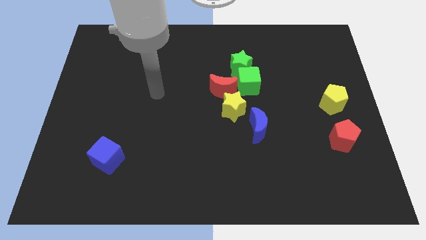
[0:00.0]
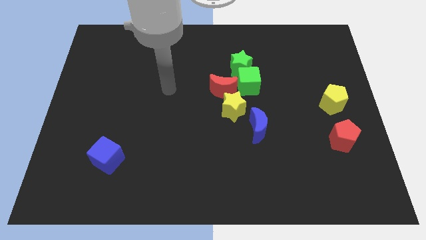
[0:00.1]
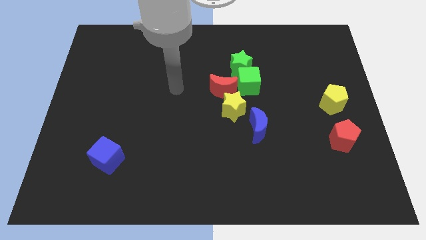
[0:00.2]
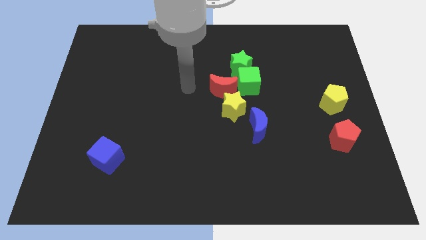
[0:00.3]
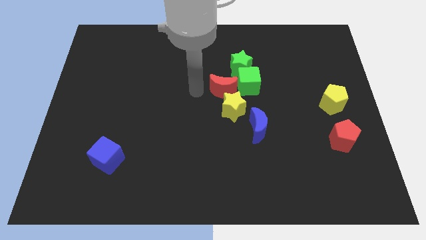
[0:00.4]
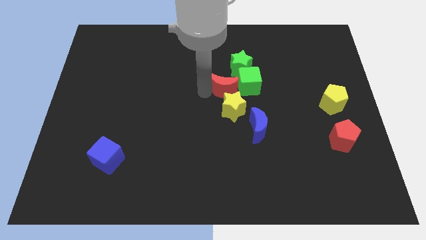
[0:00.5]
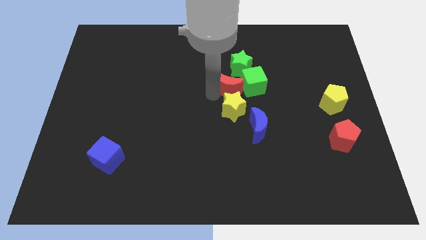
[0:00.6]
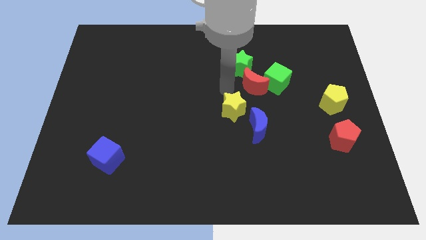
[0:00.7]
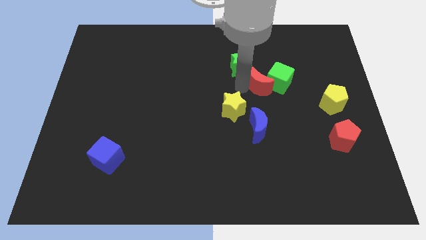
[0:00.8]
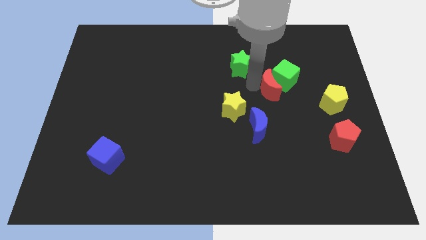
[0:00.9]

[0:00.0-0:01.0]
move the green cube away from the group of blocks

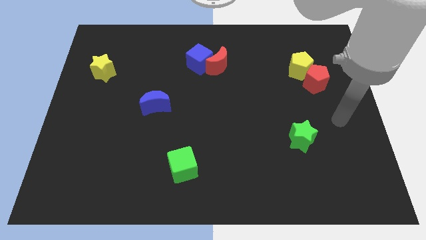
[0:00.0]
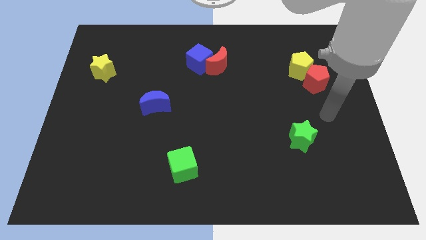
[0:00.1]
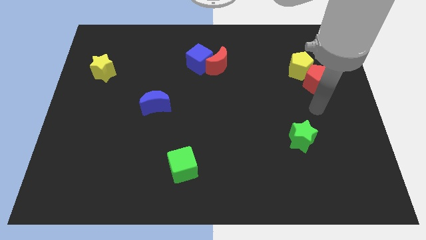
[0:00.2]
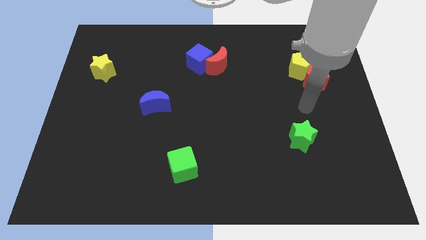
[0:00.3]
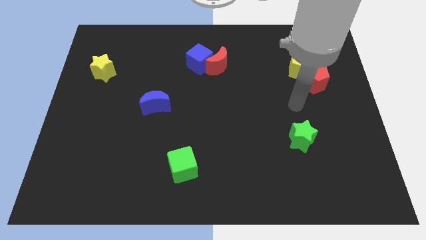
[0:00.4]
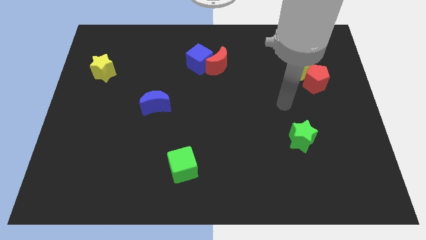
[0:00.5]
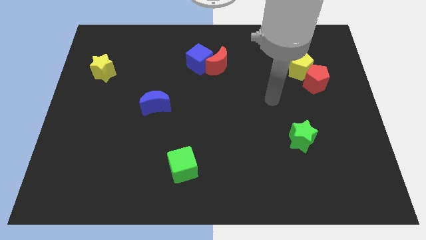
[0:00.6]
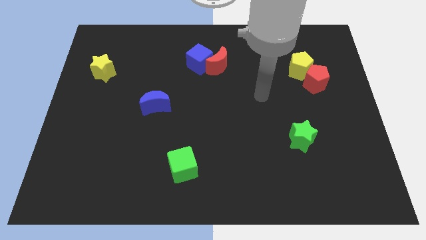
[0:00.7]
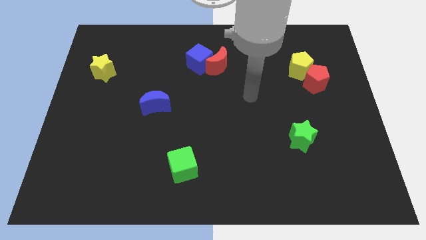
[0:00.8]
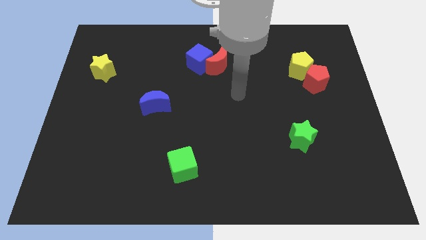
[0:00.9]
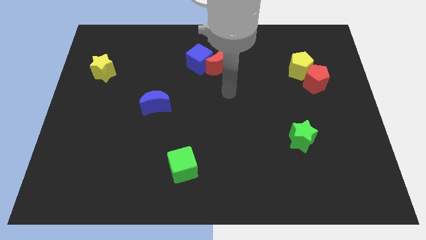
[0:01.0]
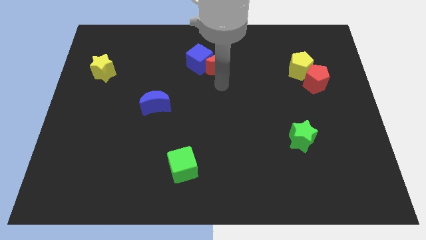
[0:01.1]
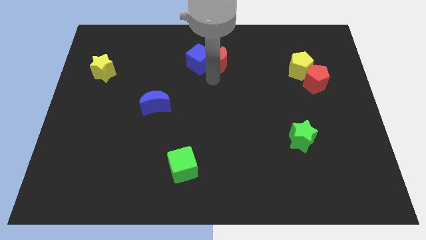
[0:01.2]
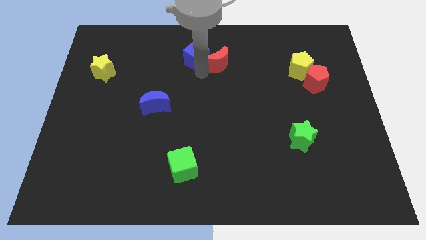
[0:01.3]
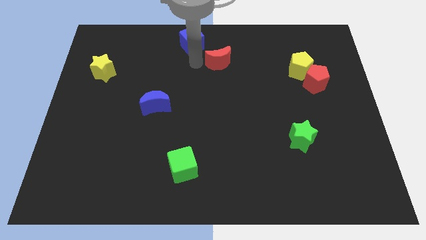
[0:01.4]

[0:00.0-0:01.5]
pull the red moon apart from the blue cube

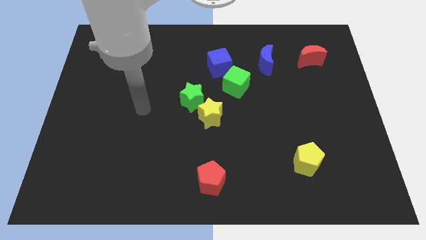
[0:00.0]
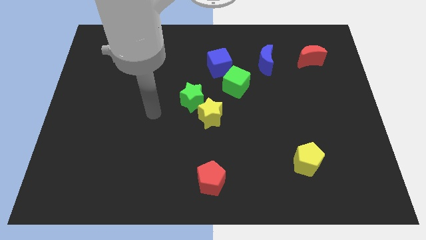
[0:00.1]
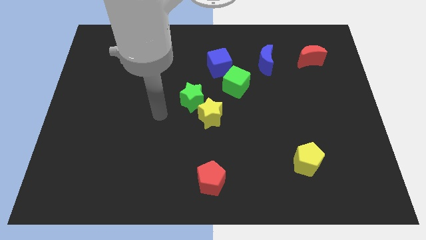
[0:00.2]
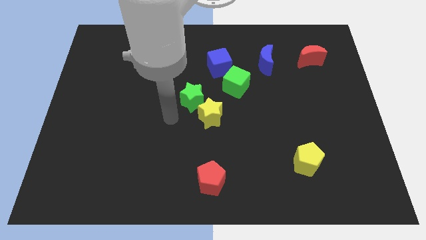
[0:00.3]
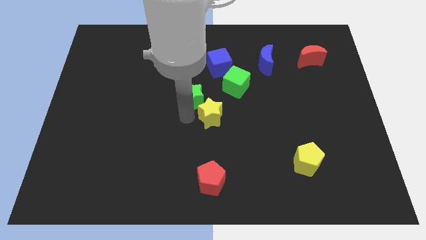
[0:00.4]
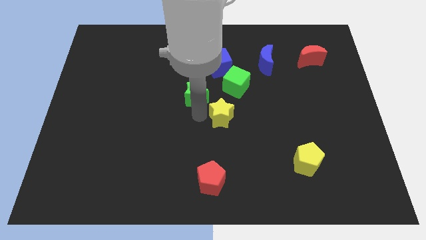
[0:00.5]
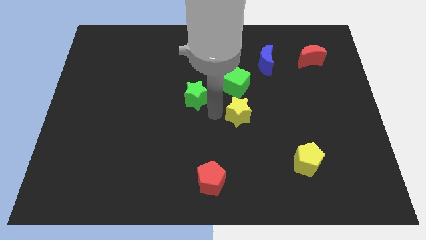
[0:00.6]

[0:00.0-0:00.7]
separate the green star from the yellow star

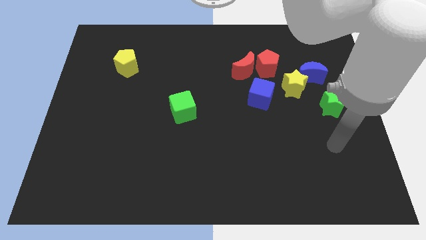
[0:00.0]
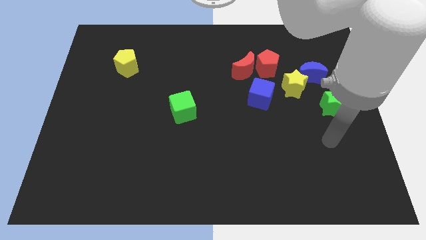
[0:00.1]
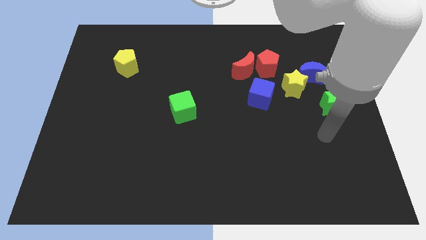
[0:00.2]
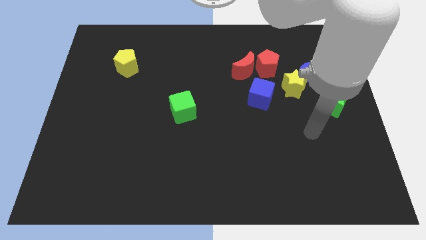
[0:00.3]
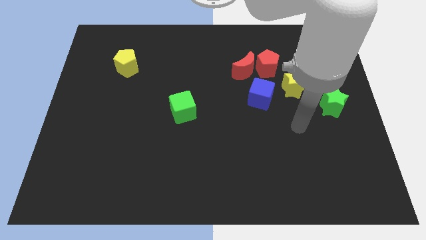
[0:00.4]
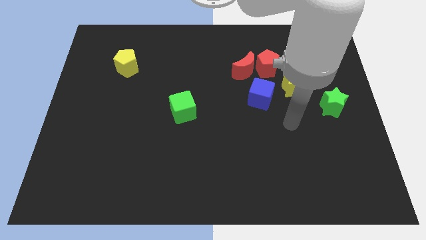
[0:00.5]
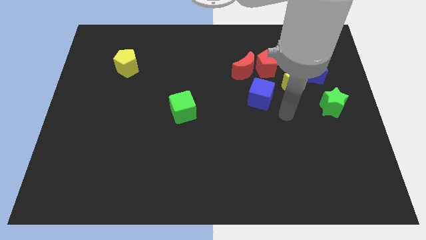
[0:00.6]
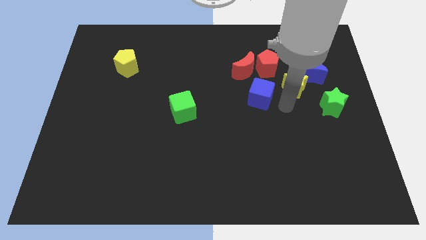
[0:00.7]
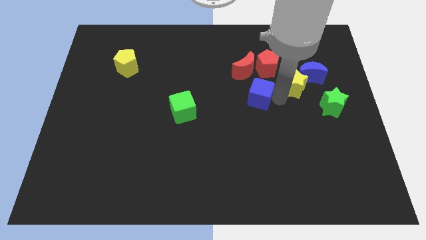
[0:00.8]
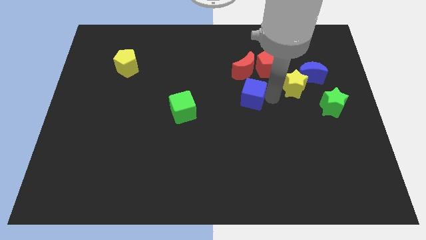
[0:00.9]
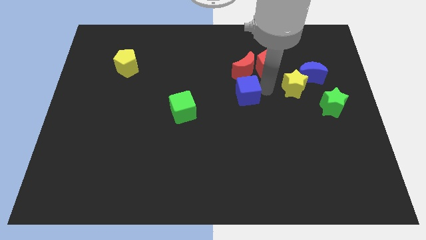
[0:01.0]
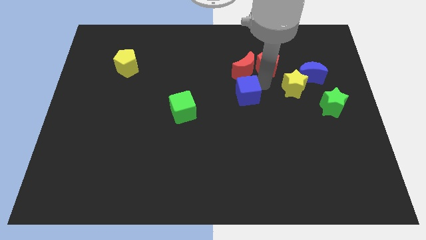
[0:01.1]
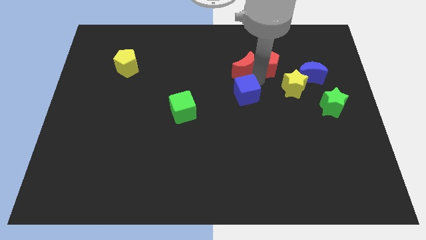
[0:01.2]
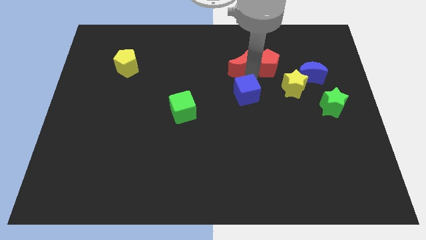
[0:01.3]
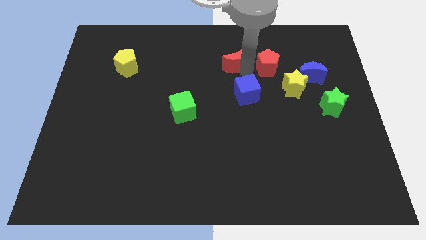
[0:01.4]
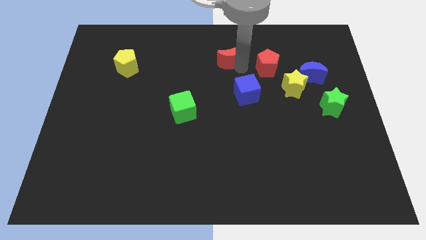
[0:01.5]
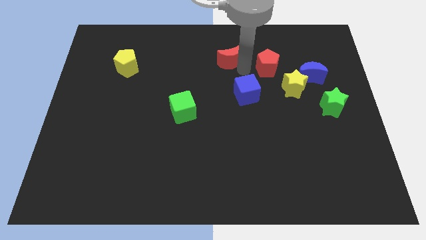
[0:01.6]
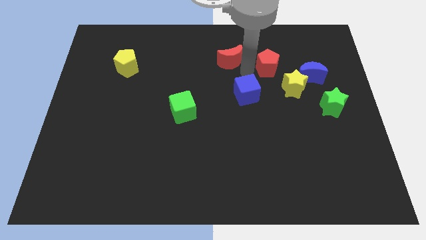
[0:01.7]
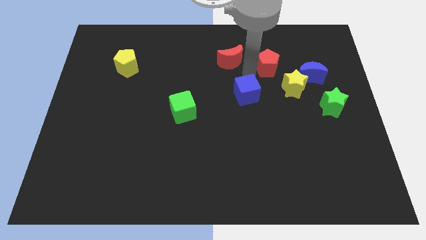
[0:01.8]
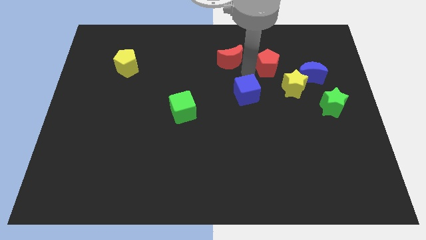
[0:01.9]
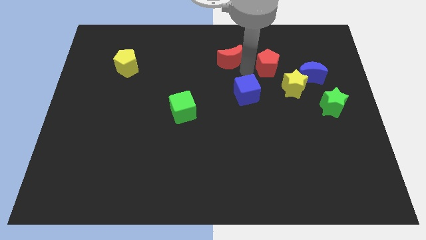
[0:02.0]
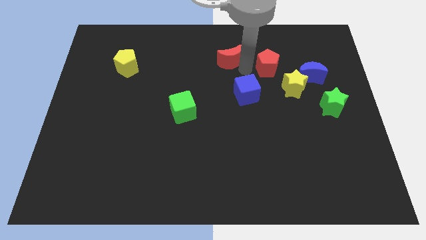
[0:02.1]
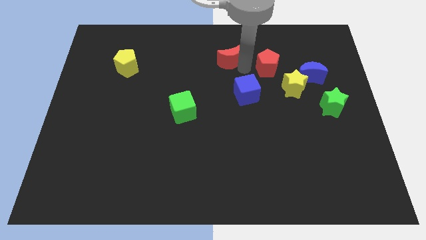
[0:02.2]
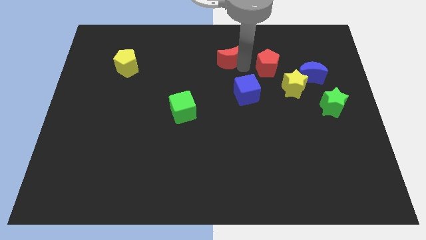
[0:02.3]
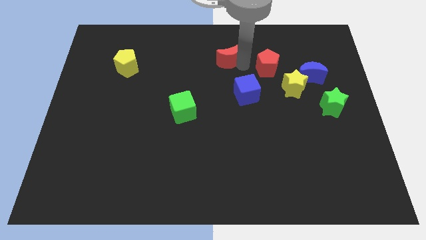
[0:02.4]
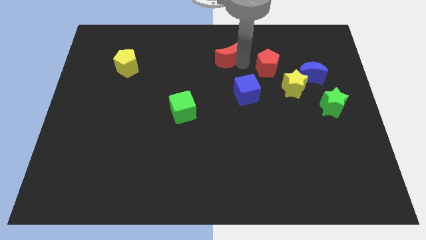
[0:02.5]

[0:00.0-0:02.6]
pull the red moon apart from the red pentagon and blue cube

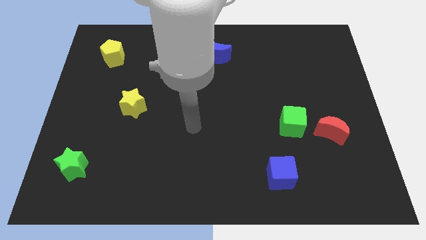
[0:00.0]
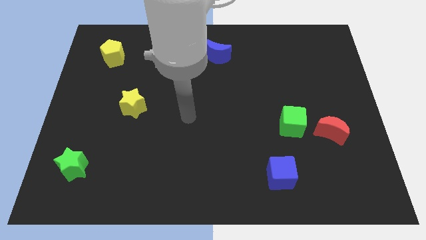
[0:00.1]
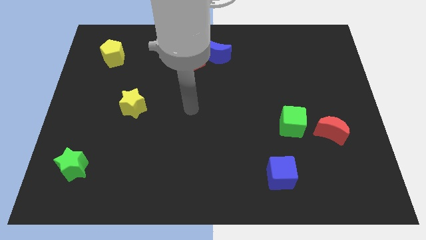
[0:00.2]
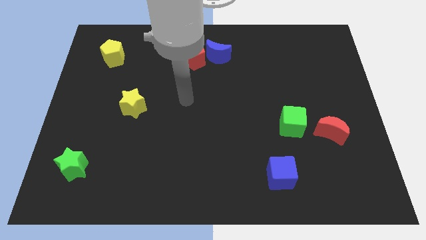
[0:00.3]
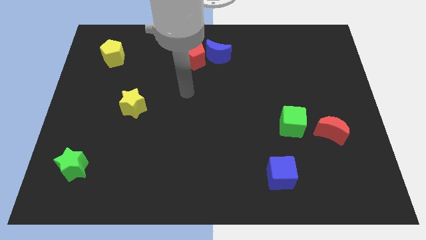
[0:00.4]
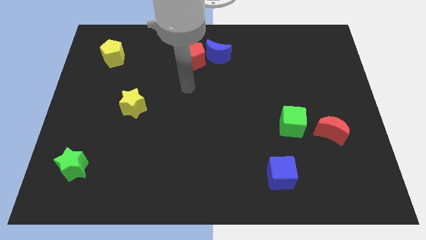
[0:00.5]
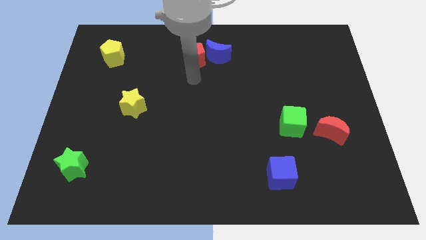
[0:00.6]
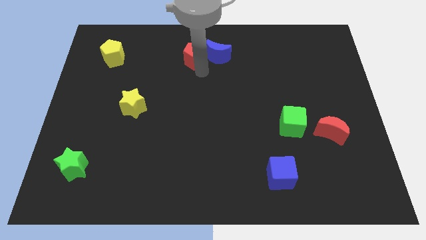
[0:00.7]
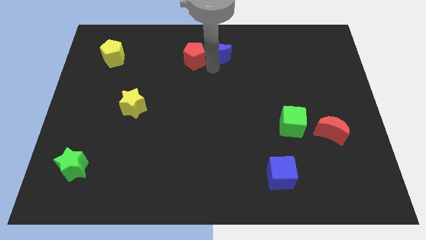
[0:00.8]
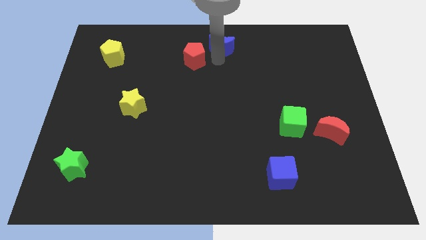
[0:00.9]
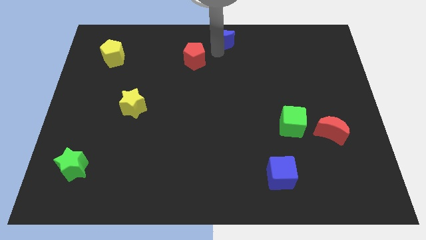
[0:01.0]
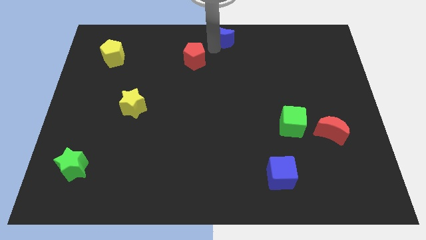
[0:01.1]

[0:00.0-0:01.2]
pull the red pentagon apart from the blue moon

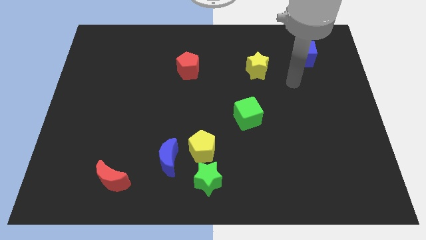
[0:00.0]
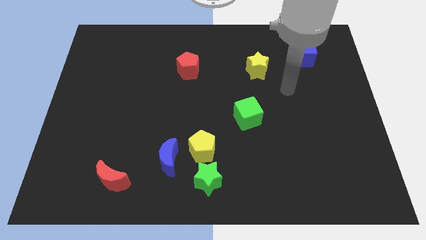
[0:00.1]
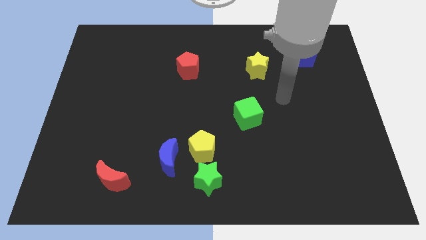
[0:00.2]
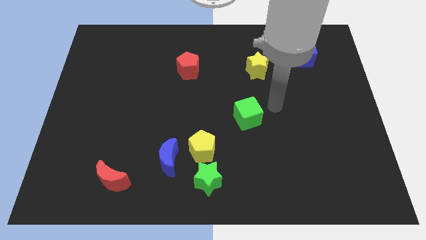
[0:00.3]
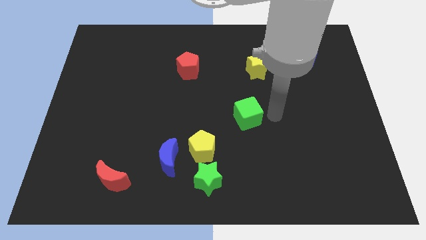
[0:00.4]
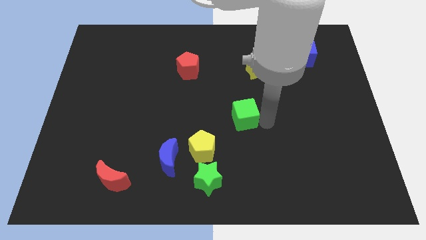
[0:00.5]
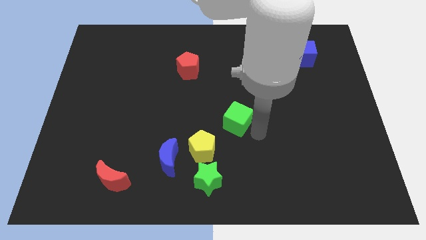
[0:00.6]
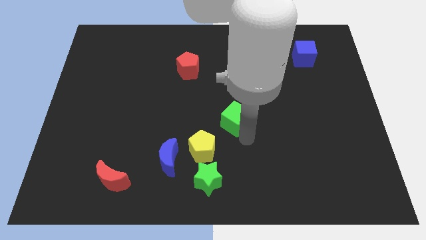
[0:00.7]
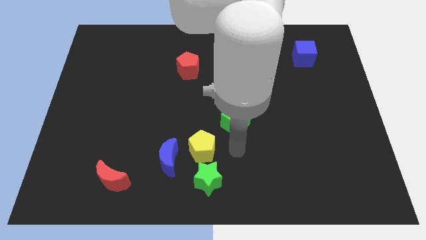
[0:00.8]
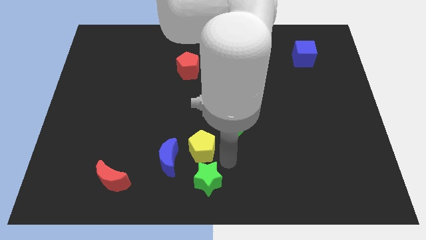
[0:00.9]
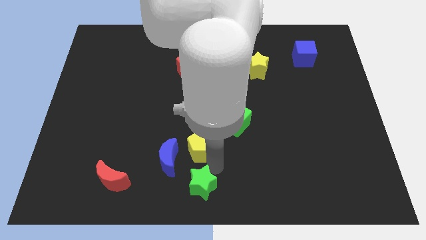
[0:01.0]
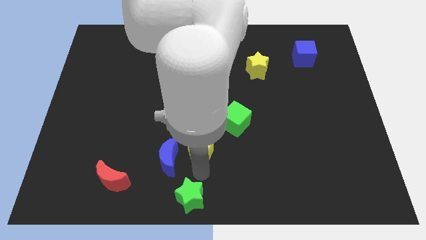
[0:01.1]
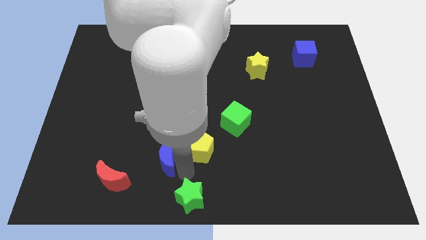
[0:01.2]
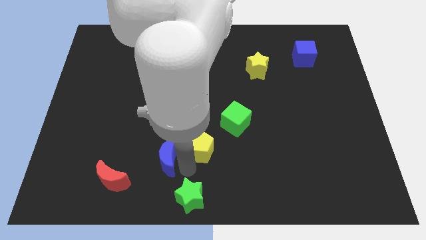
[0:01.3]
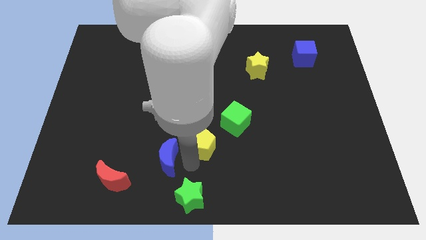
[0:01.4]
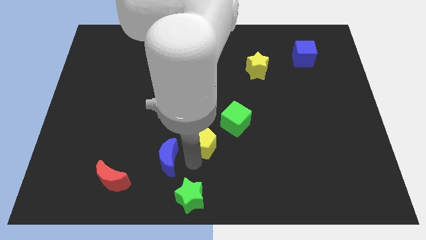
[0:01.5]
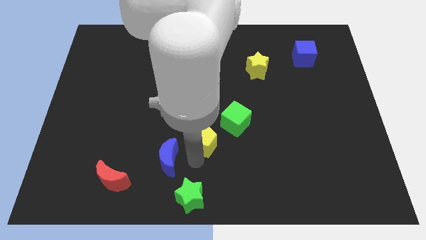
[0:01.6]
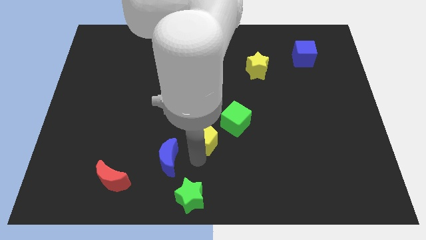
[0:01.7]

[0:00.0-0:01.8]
separate the yellow pentagon from the green star and blue moon

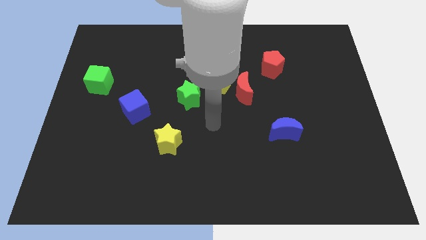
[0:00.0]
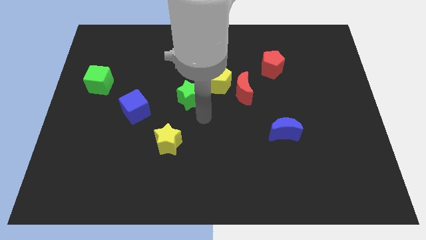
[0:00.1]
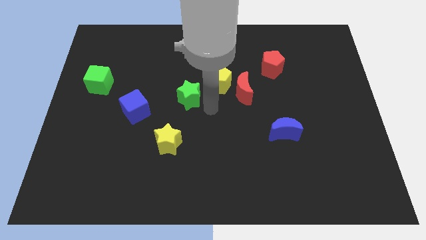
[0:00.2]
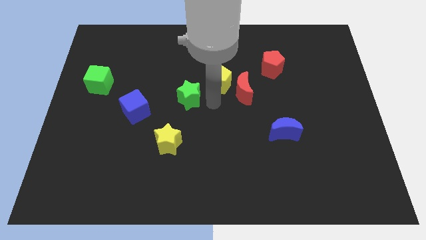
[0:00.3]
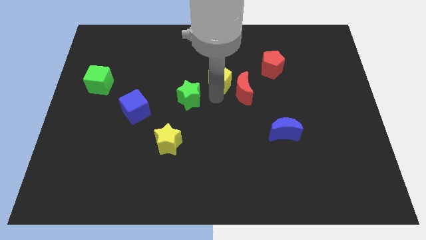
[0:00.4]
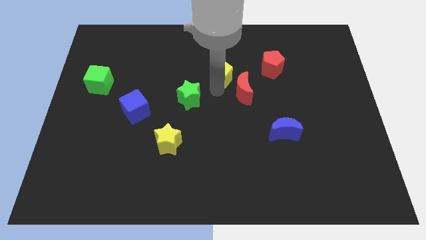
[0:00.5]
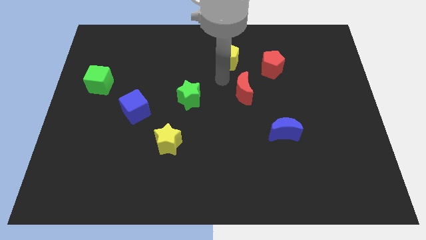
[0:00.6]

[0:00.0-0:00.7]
separate the red moon from the yellow pentagon
